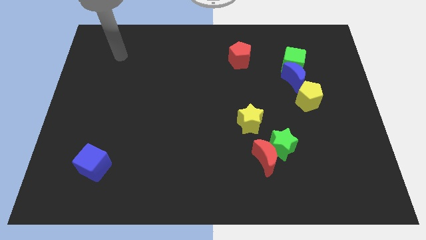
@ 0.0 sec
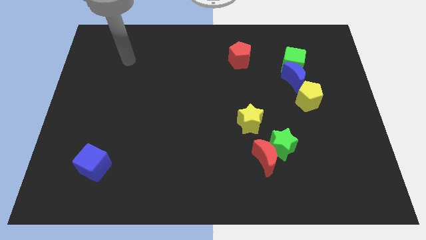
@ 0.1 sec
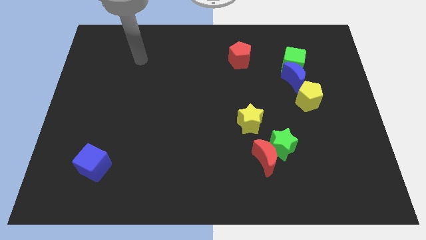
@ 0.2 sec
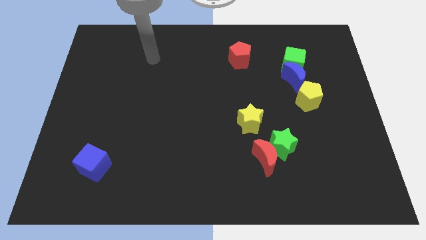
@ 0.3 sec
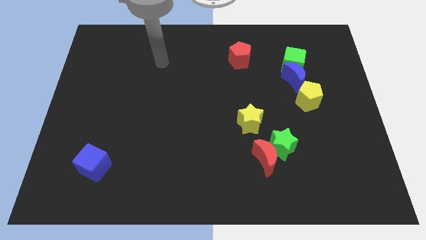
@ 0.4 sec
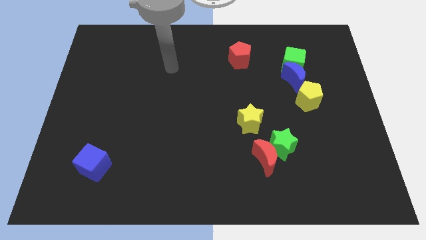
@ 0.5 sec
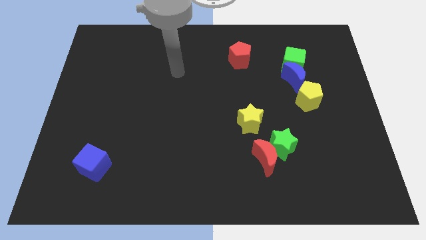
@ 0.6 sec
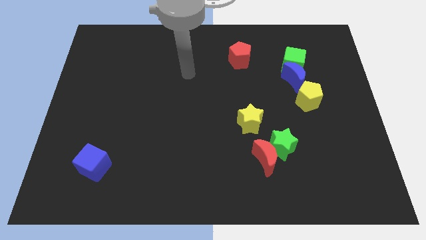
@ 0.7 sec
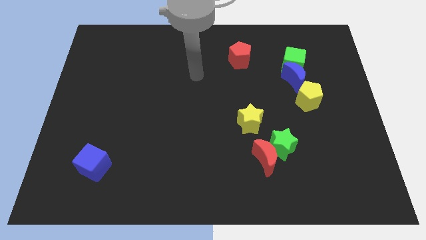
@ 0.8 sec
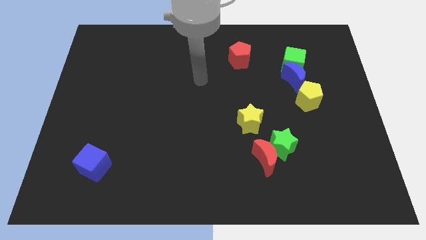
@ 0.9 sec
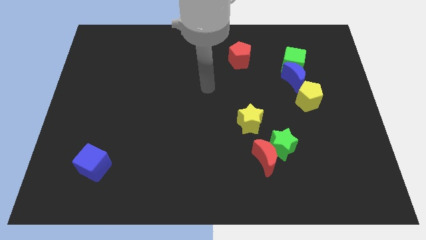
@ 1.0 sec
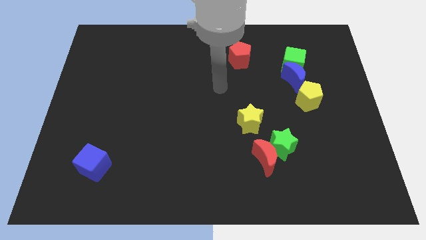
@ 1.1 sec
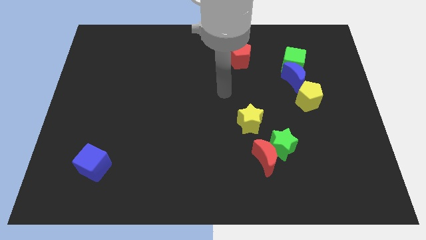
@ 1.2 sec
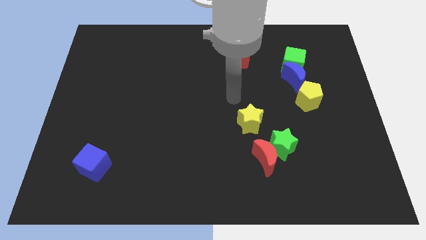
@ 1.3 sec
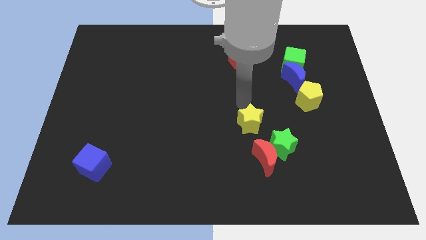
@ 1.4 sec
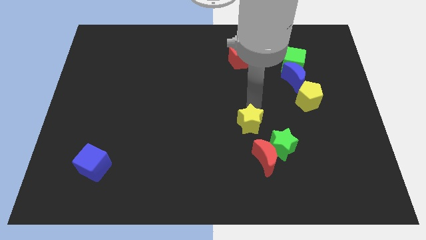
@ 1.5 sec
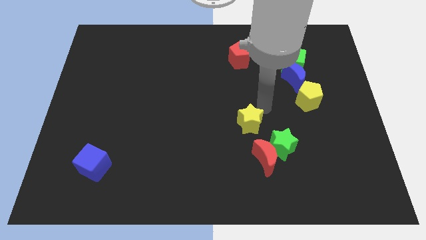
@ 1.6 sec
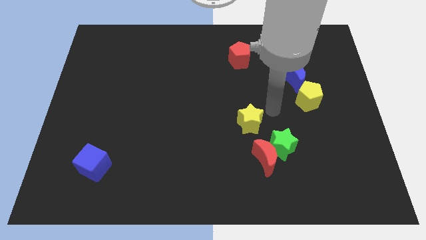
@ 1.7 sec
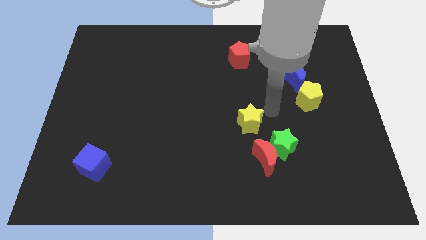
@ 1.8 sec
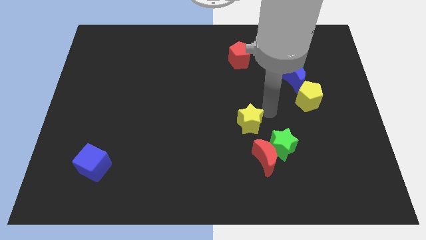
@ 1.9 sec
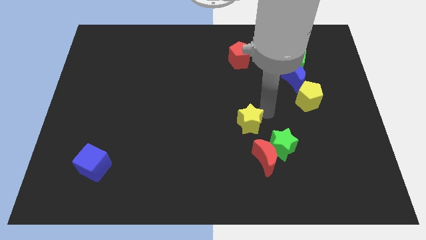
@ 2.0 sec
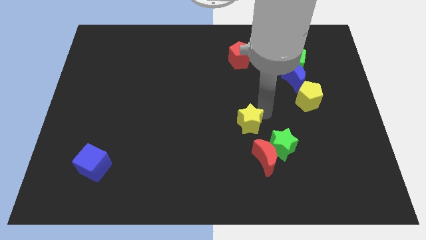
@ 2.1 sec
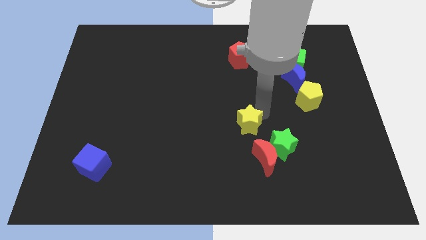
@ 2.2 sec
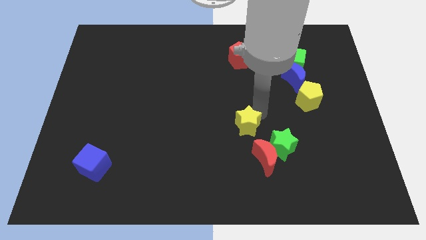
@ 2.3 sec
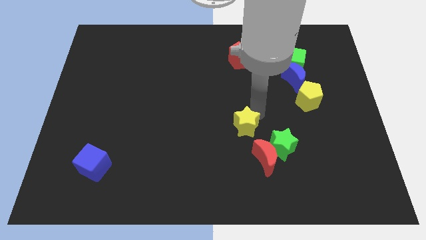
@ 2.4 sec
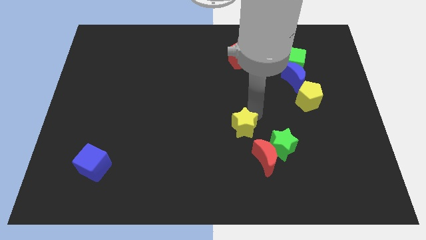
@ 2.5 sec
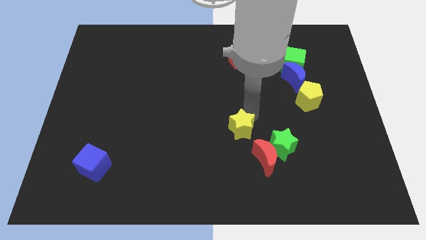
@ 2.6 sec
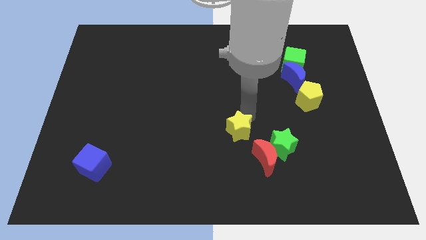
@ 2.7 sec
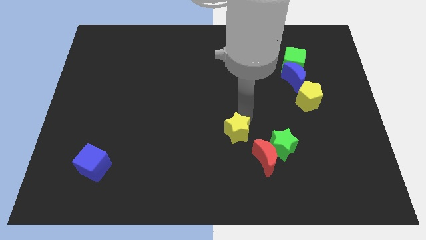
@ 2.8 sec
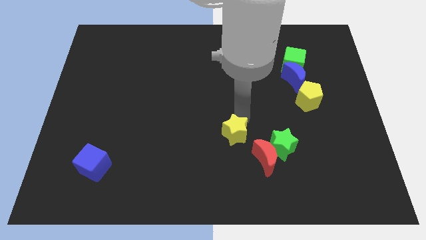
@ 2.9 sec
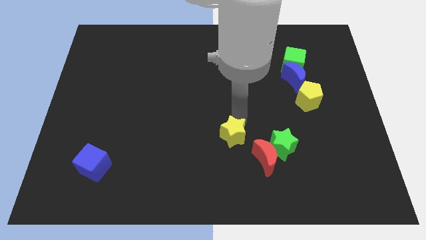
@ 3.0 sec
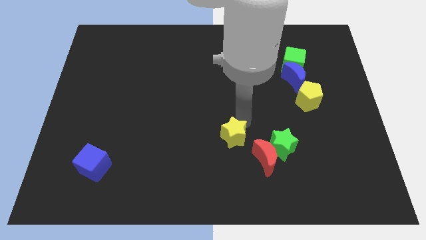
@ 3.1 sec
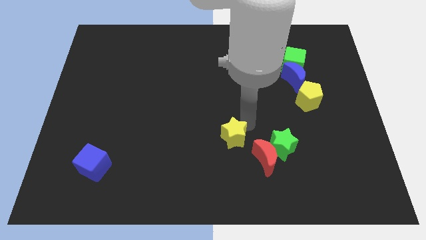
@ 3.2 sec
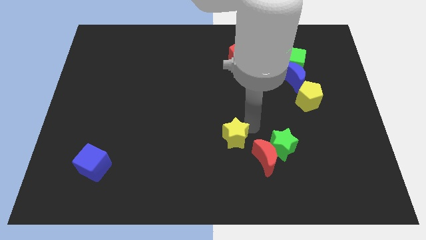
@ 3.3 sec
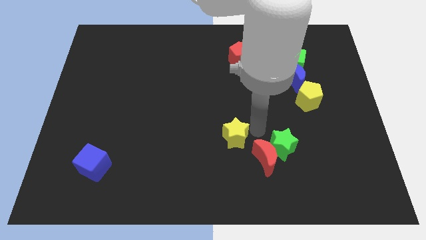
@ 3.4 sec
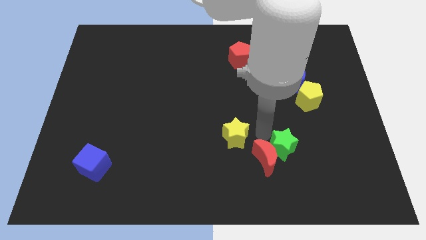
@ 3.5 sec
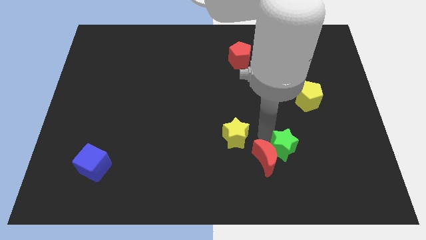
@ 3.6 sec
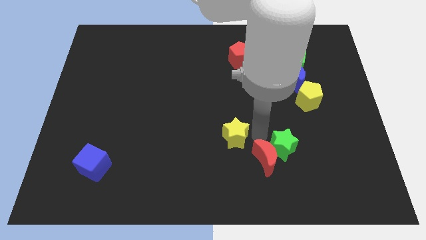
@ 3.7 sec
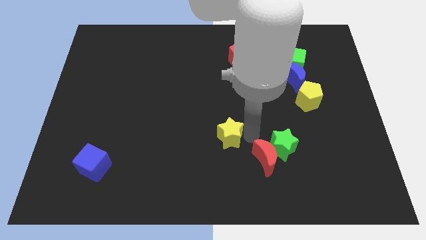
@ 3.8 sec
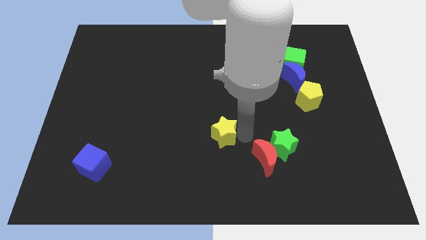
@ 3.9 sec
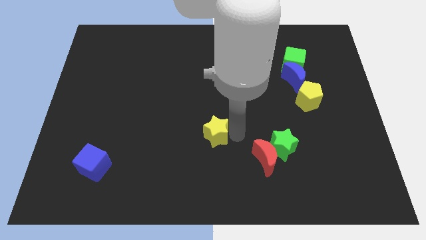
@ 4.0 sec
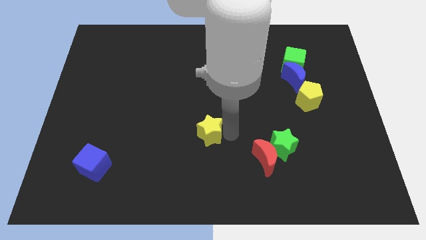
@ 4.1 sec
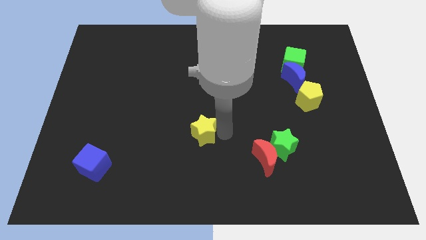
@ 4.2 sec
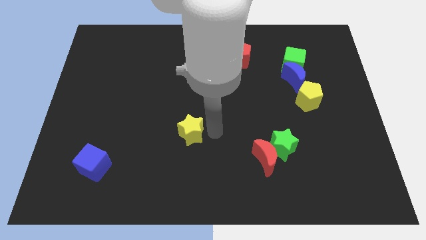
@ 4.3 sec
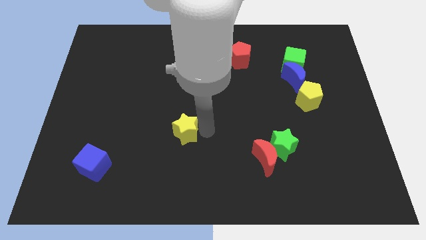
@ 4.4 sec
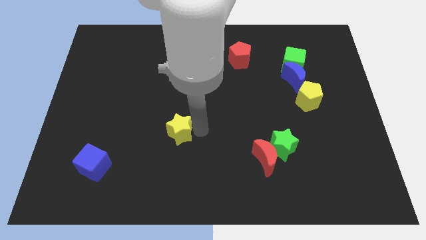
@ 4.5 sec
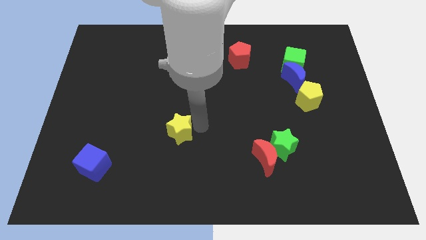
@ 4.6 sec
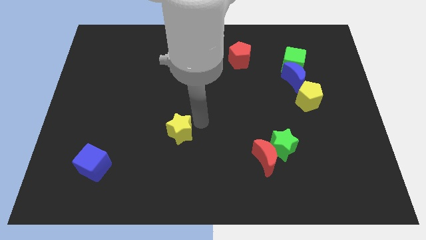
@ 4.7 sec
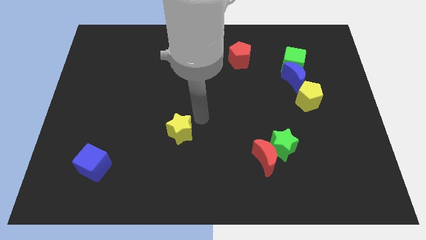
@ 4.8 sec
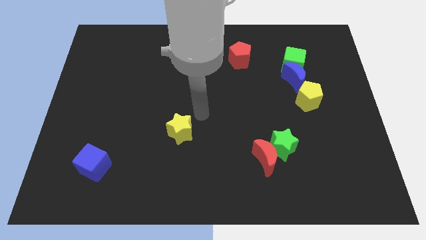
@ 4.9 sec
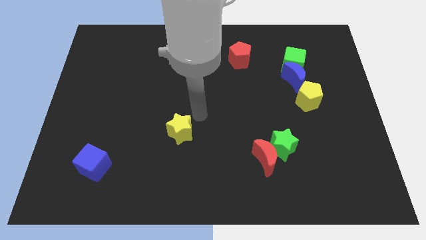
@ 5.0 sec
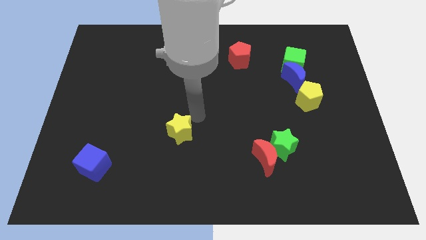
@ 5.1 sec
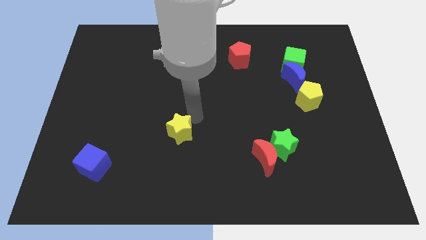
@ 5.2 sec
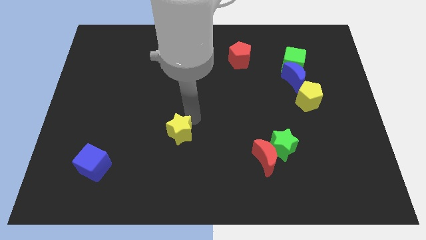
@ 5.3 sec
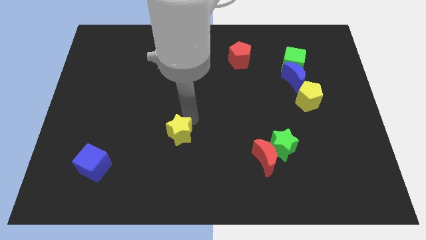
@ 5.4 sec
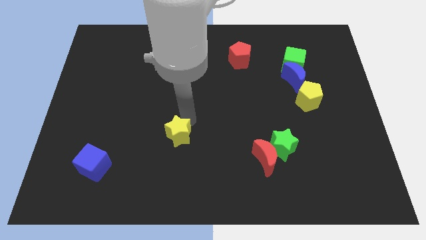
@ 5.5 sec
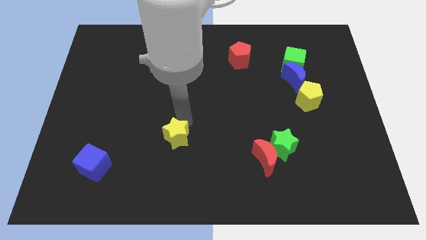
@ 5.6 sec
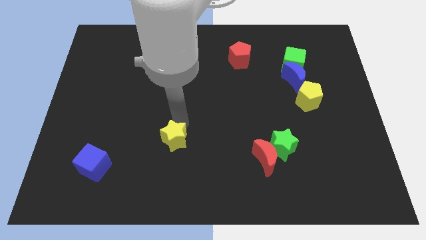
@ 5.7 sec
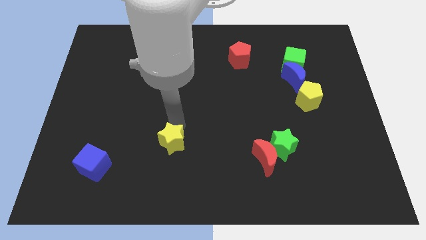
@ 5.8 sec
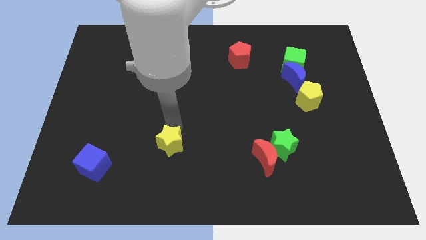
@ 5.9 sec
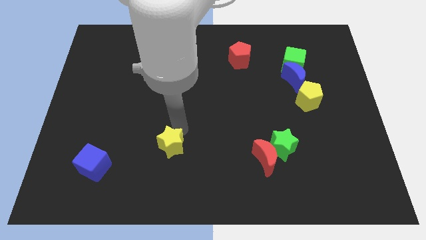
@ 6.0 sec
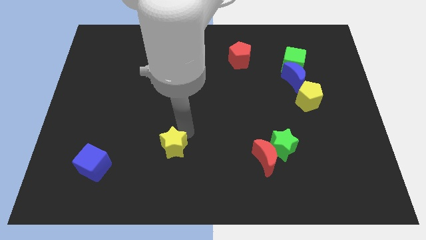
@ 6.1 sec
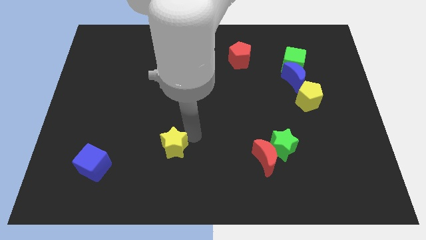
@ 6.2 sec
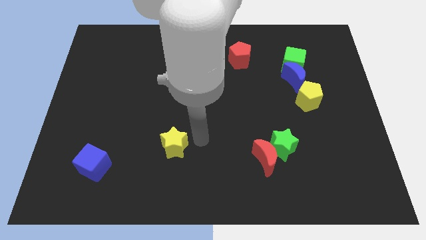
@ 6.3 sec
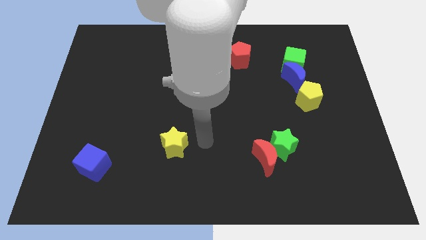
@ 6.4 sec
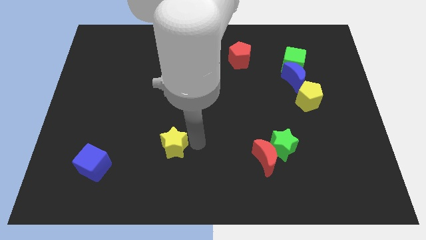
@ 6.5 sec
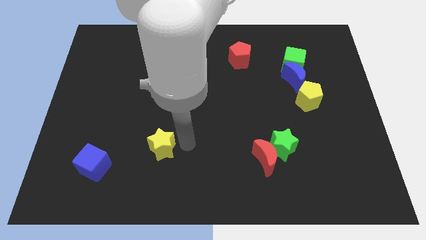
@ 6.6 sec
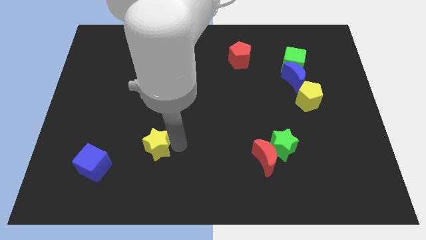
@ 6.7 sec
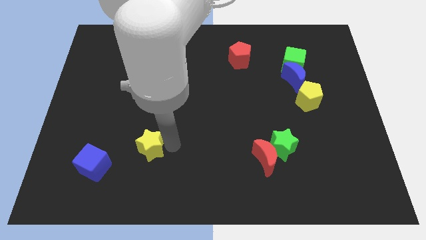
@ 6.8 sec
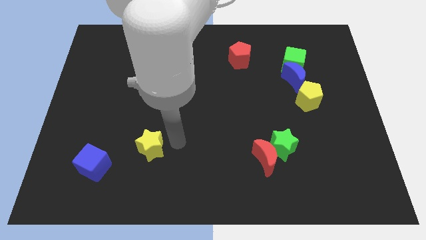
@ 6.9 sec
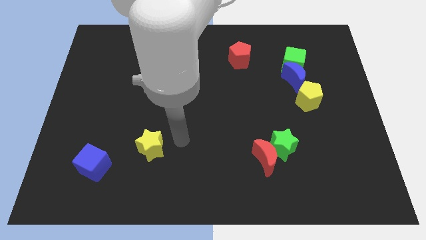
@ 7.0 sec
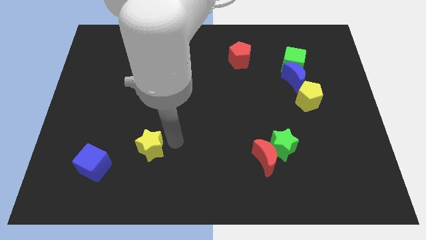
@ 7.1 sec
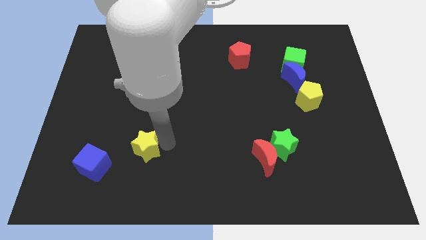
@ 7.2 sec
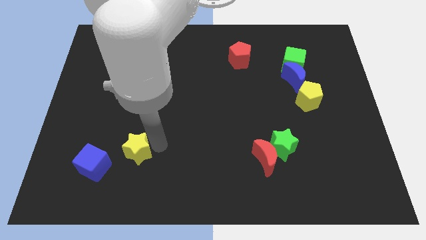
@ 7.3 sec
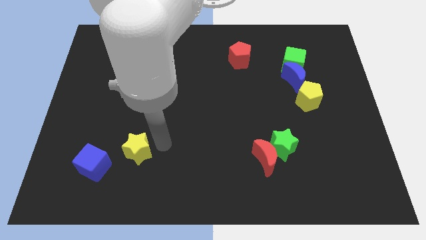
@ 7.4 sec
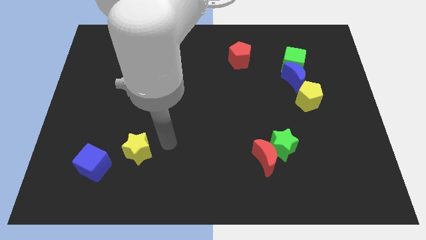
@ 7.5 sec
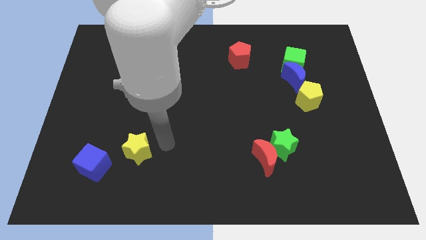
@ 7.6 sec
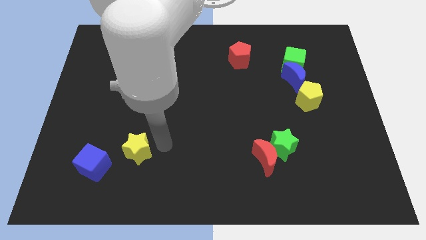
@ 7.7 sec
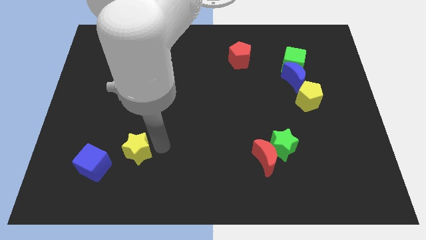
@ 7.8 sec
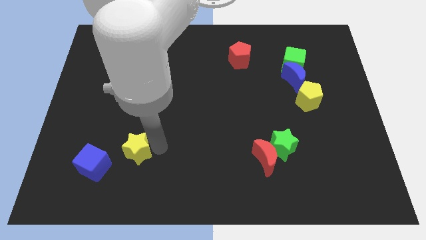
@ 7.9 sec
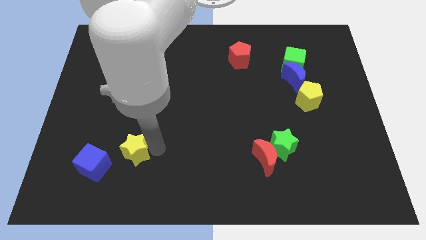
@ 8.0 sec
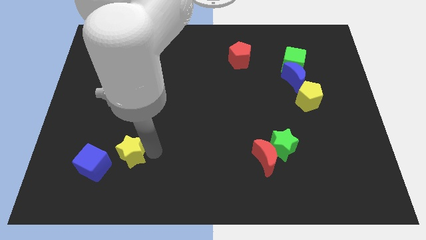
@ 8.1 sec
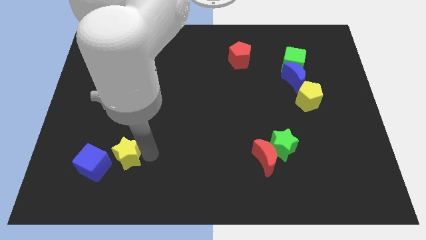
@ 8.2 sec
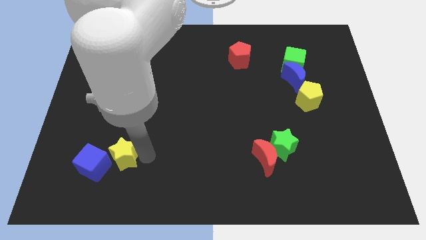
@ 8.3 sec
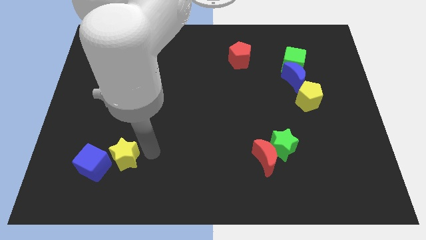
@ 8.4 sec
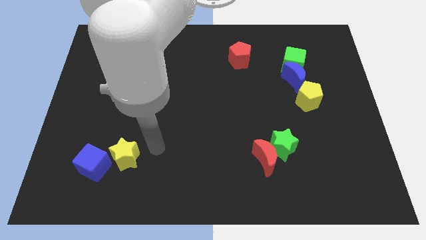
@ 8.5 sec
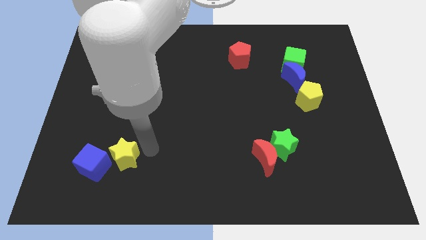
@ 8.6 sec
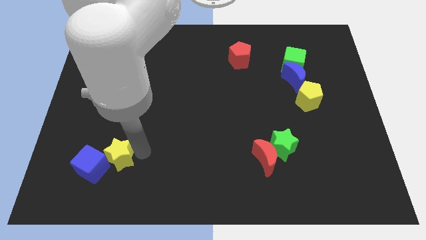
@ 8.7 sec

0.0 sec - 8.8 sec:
put the yellow star towards the blue cube
